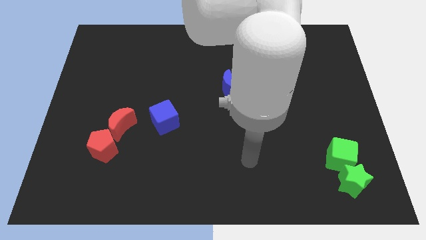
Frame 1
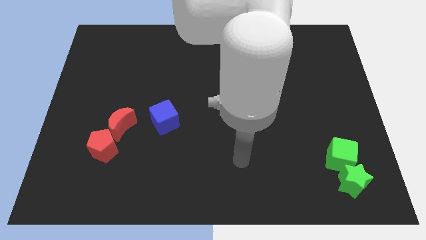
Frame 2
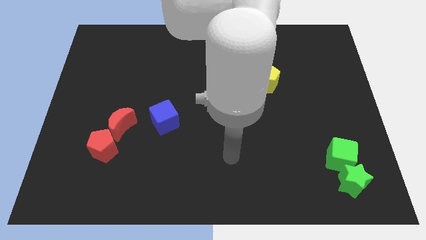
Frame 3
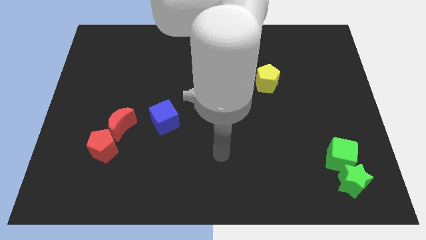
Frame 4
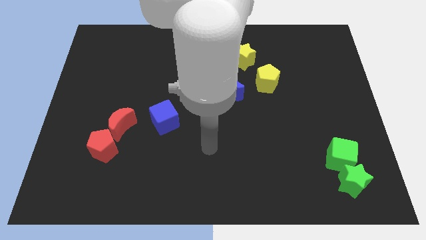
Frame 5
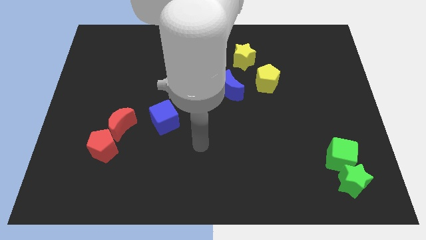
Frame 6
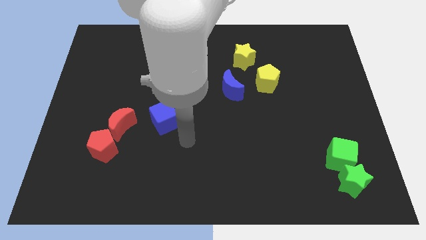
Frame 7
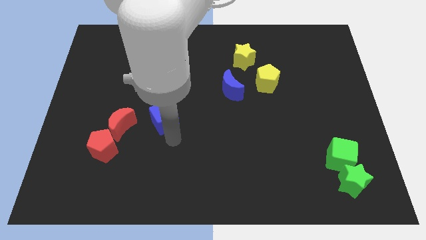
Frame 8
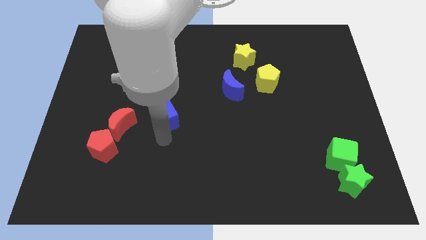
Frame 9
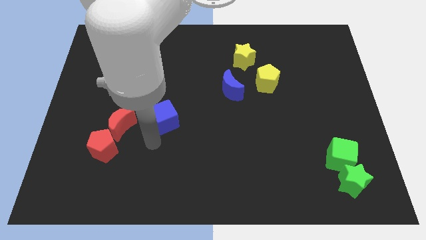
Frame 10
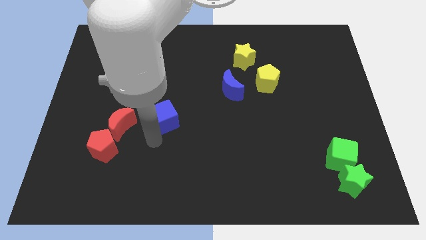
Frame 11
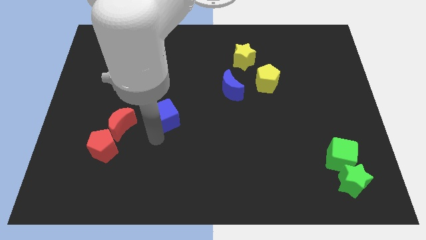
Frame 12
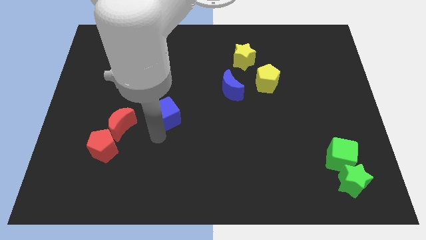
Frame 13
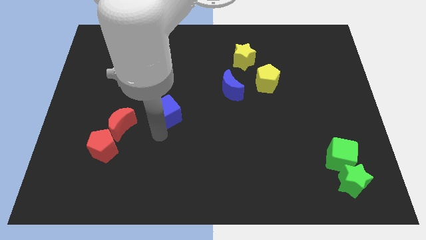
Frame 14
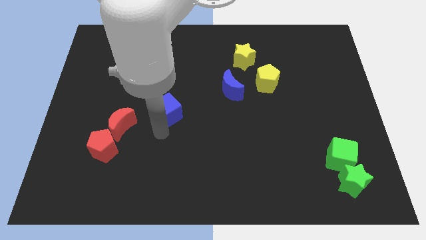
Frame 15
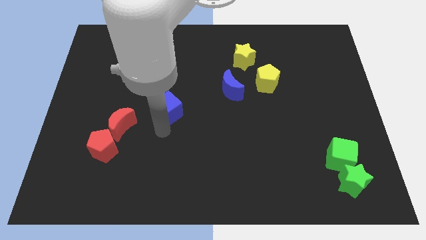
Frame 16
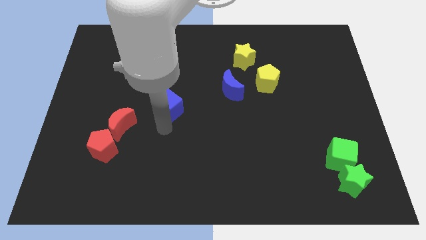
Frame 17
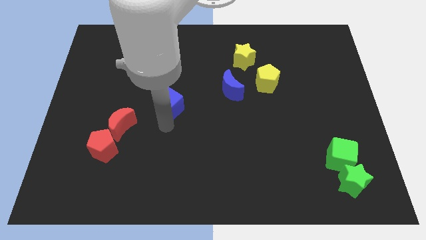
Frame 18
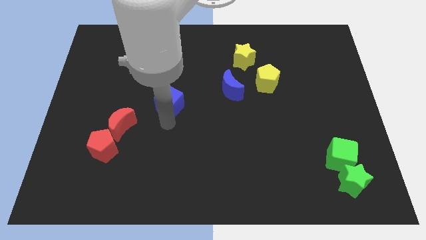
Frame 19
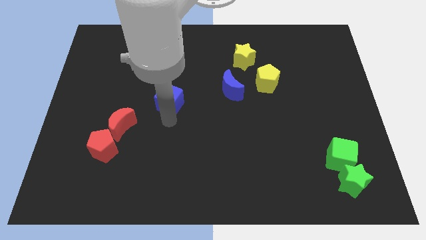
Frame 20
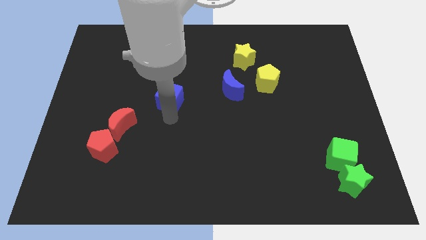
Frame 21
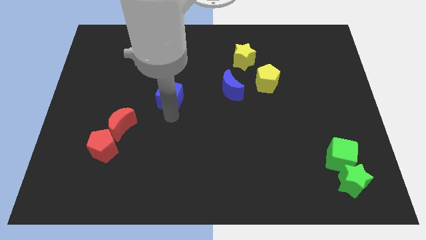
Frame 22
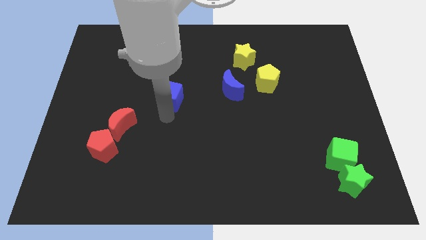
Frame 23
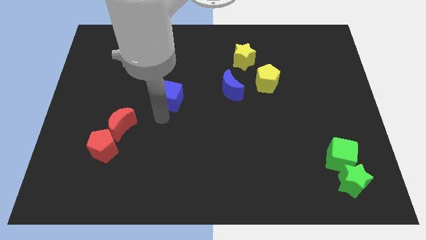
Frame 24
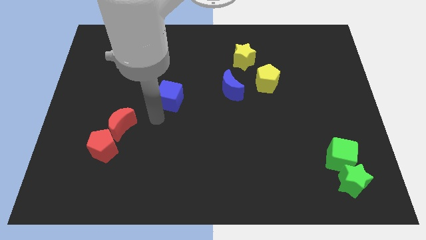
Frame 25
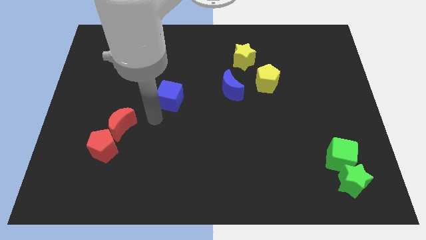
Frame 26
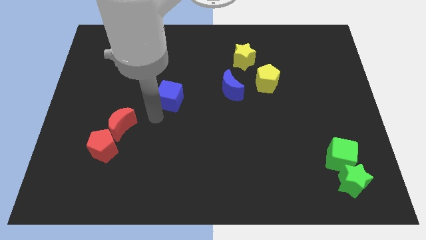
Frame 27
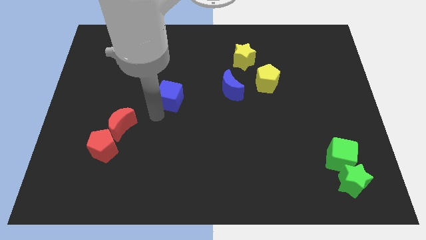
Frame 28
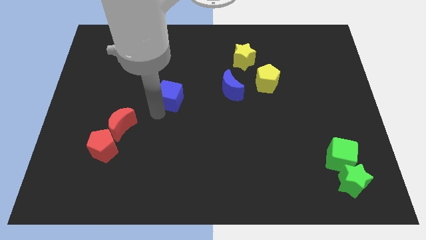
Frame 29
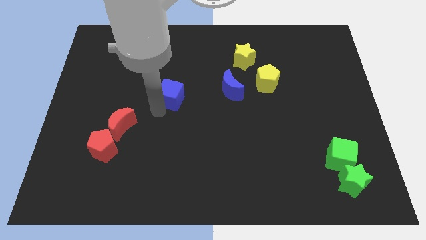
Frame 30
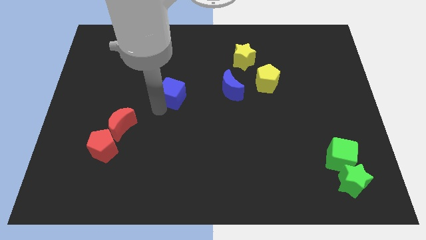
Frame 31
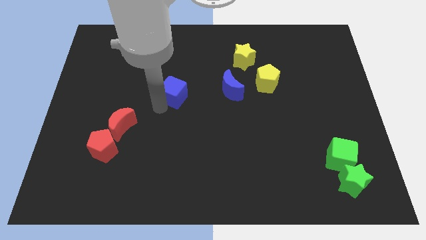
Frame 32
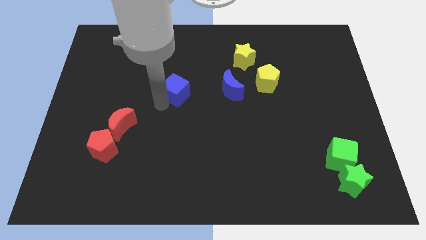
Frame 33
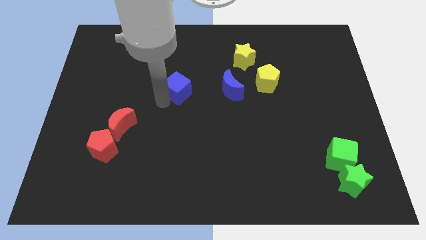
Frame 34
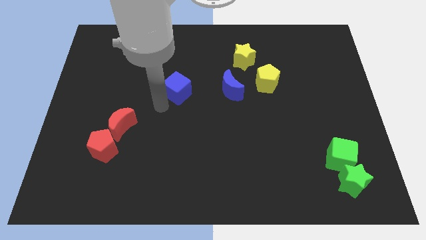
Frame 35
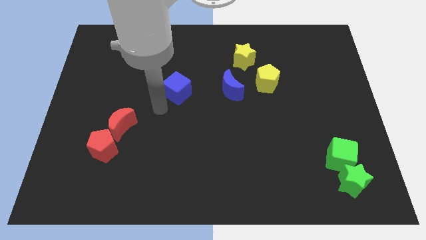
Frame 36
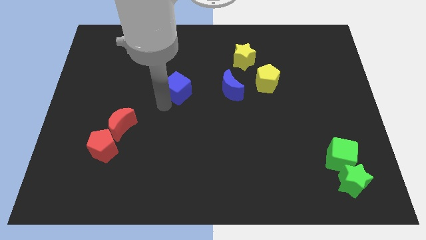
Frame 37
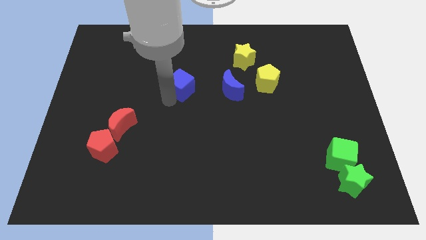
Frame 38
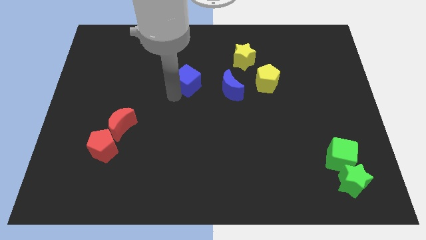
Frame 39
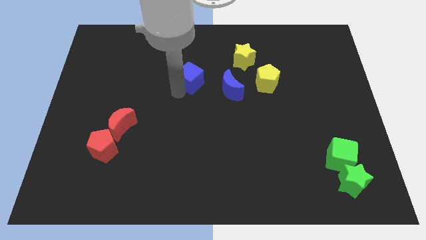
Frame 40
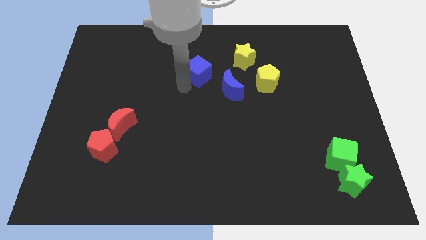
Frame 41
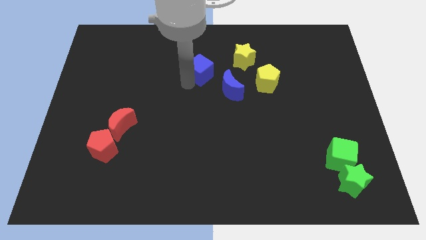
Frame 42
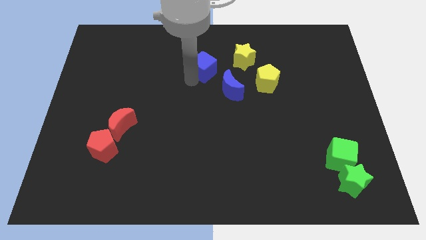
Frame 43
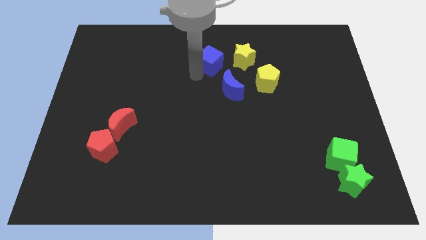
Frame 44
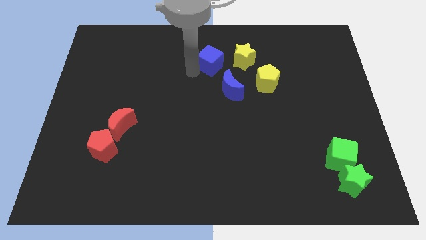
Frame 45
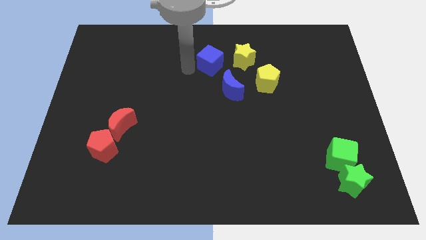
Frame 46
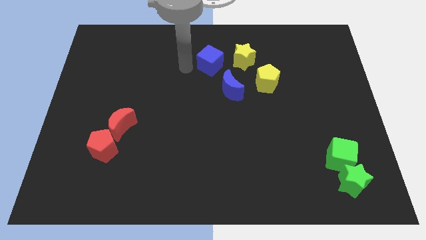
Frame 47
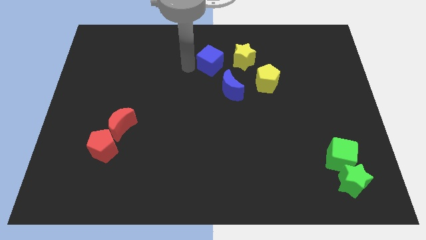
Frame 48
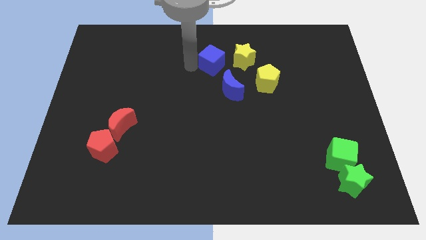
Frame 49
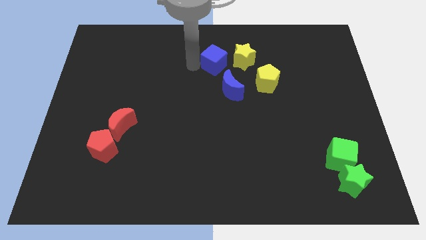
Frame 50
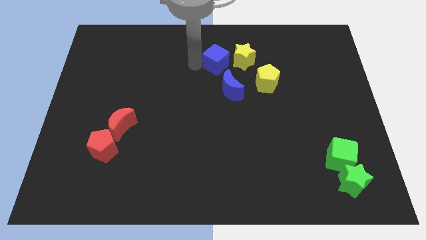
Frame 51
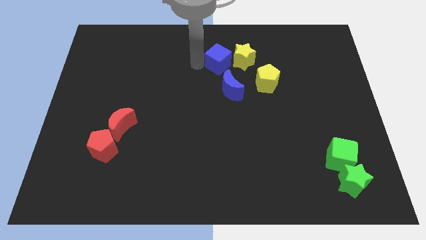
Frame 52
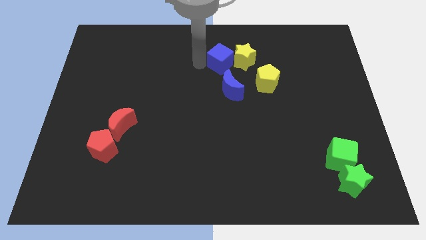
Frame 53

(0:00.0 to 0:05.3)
put the blue cube close to the yellow star

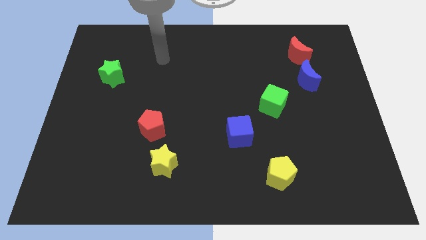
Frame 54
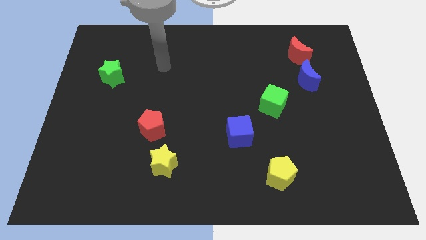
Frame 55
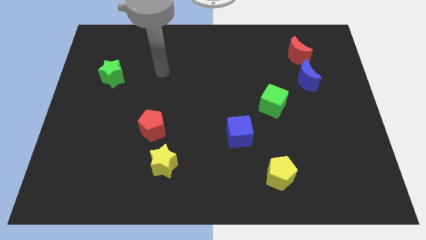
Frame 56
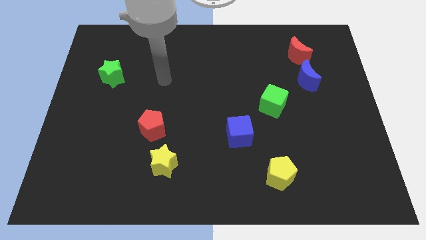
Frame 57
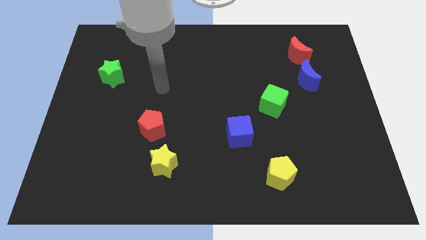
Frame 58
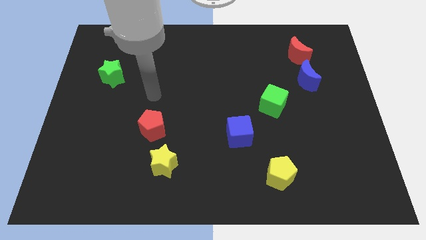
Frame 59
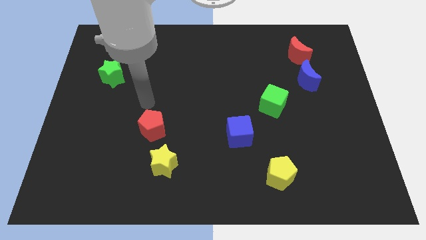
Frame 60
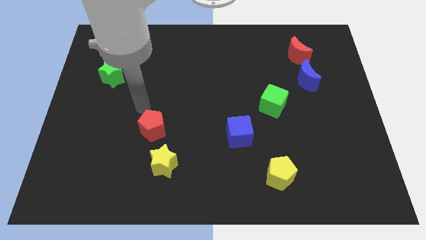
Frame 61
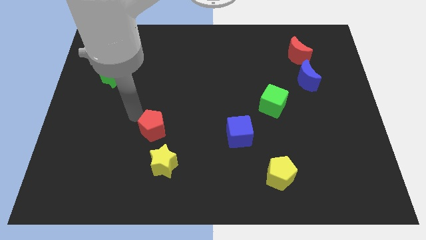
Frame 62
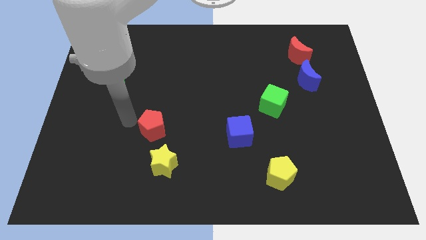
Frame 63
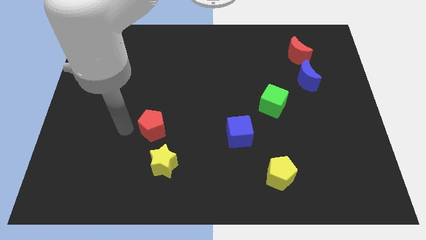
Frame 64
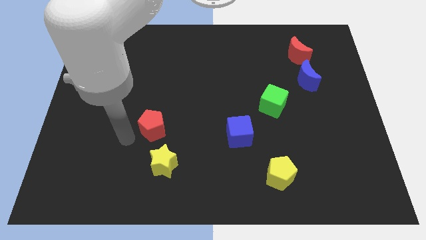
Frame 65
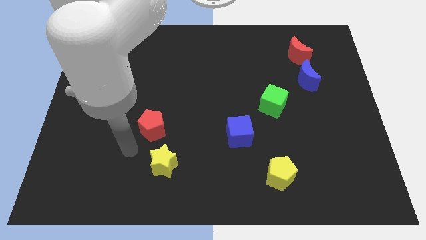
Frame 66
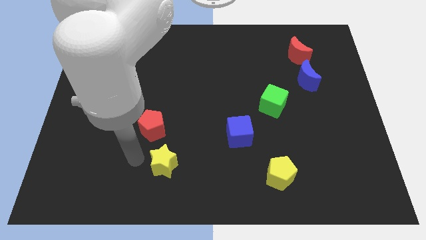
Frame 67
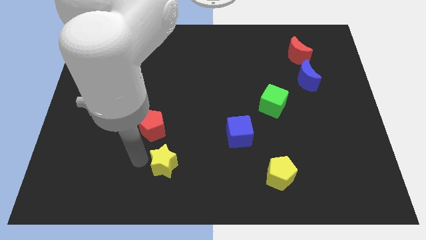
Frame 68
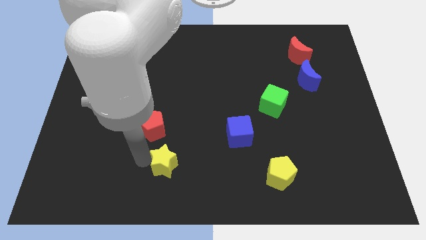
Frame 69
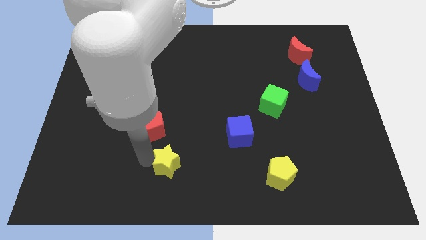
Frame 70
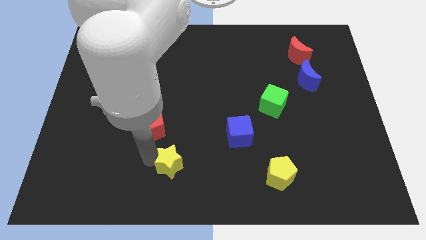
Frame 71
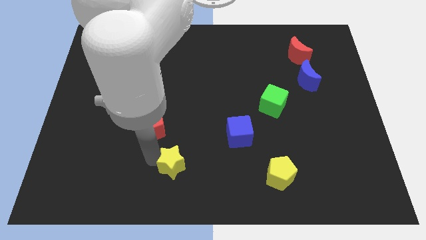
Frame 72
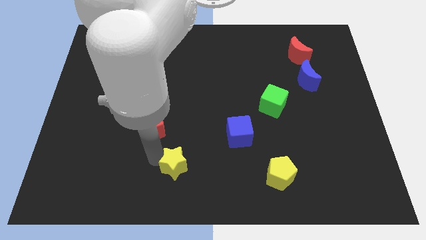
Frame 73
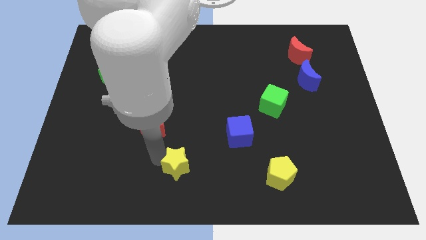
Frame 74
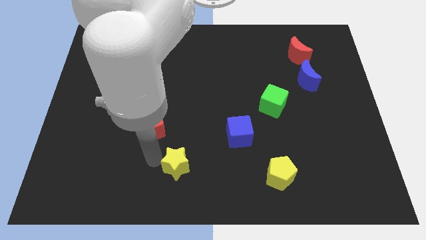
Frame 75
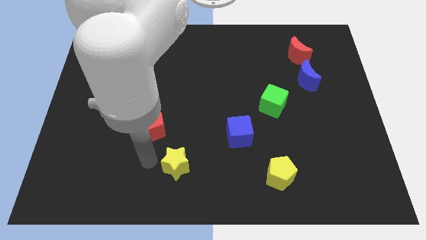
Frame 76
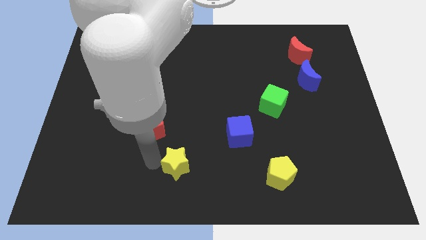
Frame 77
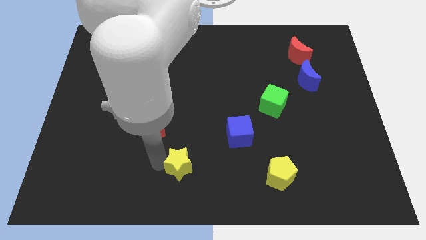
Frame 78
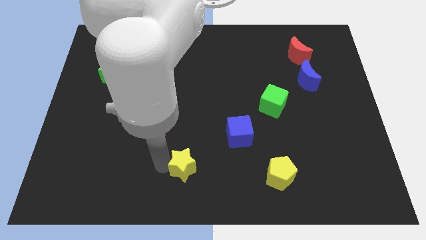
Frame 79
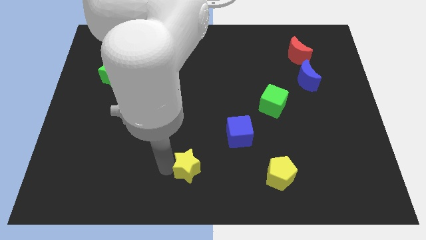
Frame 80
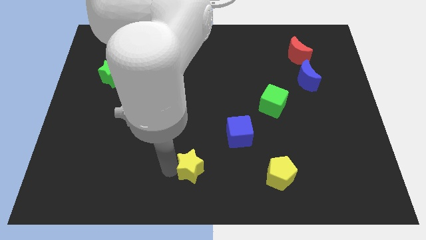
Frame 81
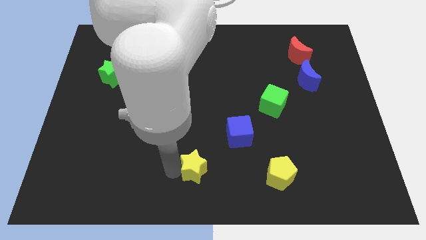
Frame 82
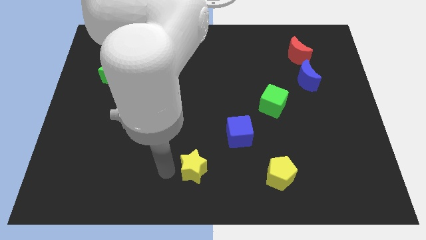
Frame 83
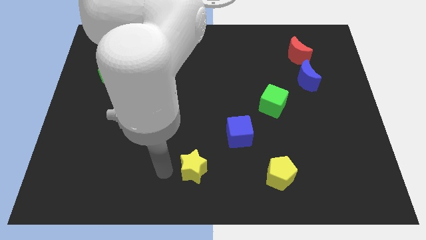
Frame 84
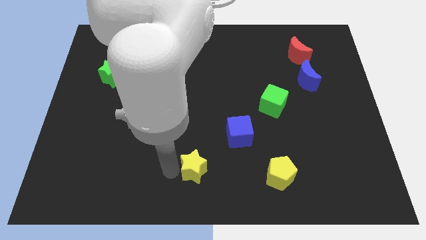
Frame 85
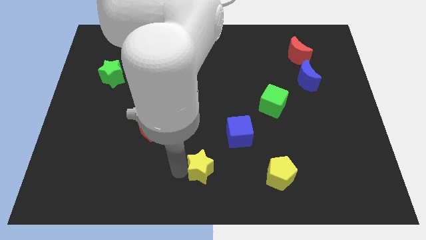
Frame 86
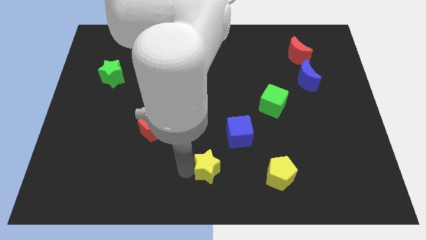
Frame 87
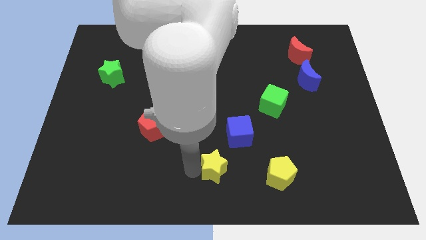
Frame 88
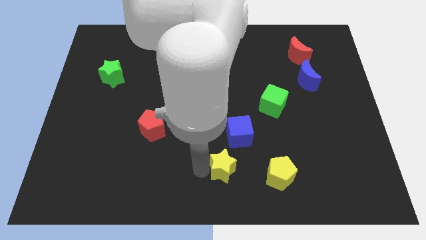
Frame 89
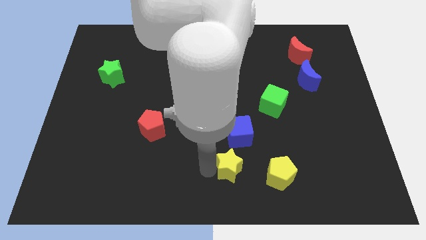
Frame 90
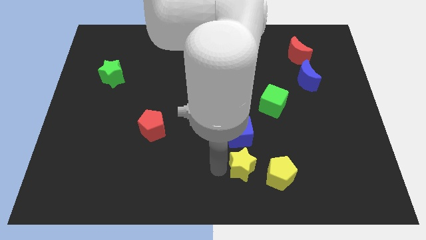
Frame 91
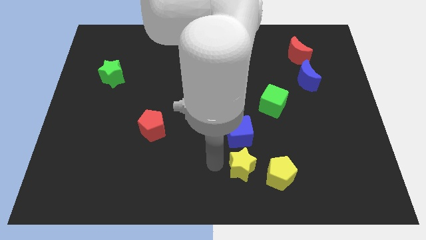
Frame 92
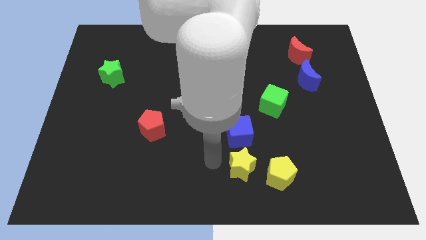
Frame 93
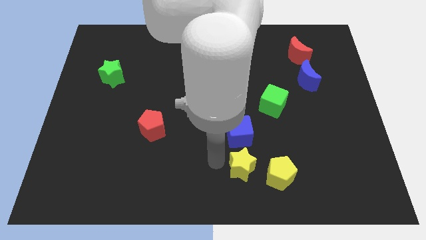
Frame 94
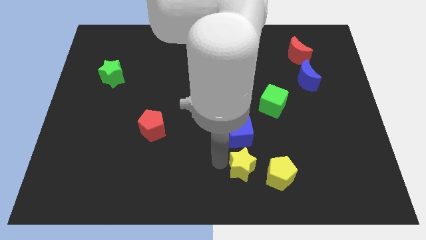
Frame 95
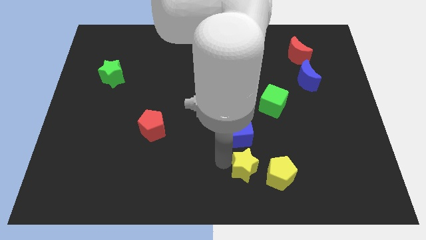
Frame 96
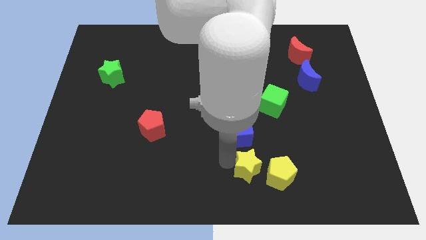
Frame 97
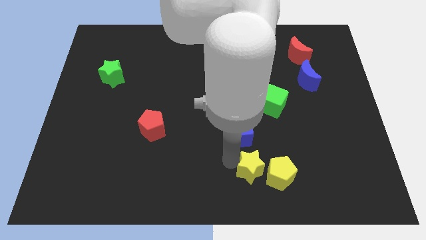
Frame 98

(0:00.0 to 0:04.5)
slide the yellow star close to the yellow pentagon
